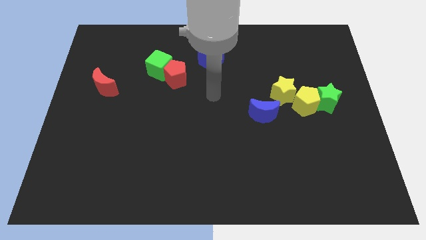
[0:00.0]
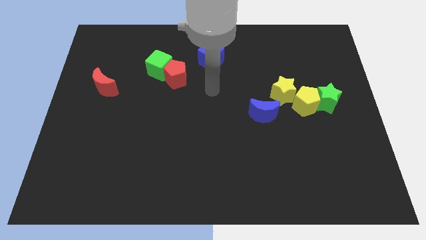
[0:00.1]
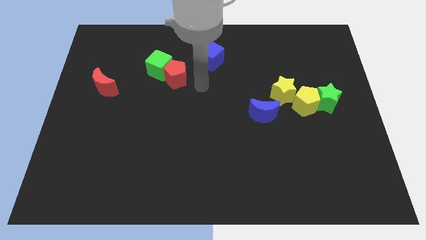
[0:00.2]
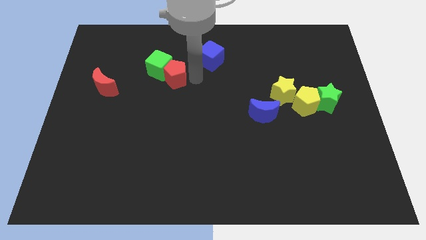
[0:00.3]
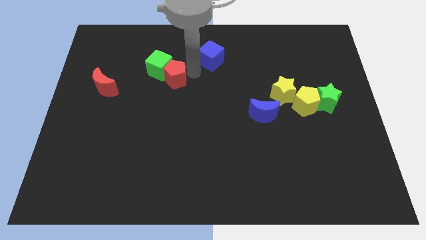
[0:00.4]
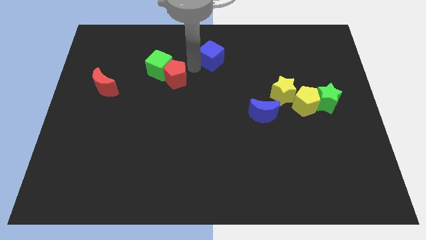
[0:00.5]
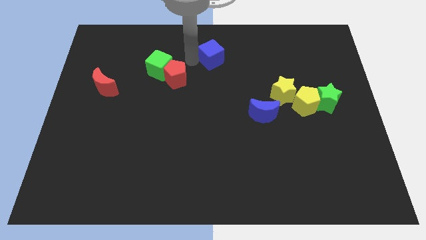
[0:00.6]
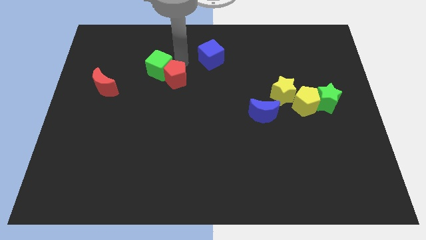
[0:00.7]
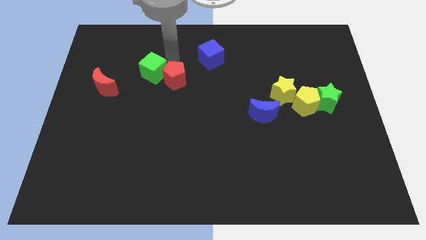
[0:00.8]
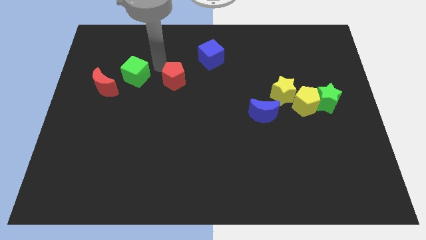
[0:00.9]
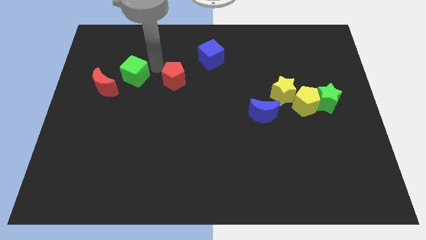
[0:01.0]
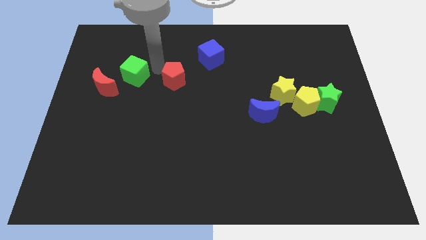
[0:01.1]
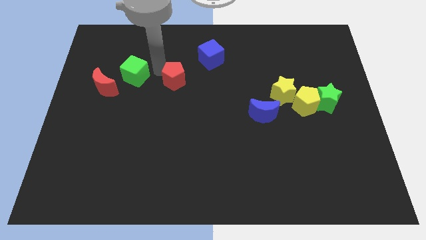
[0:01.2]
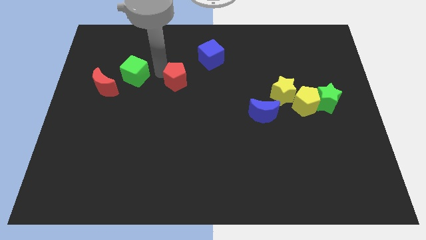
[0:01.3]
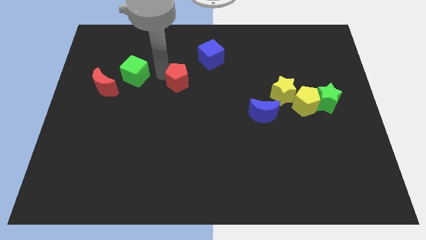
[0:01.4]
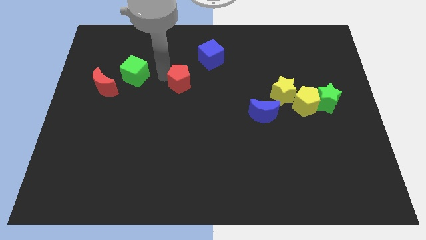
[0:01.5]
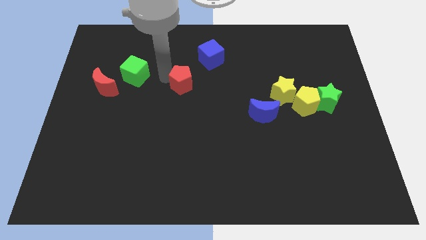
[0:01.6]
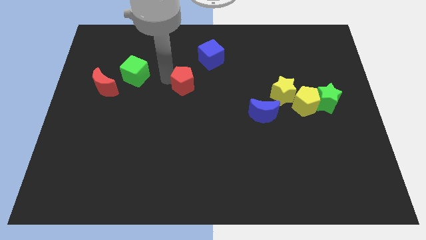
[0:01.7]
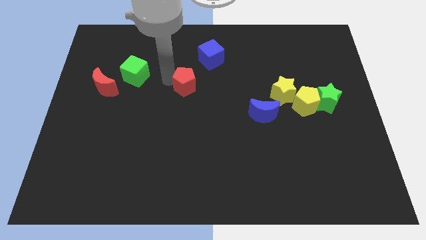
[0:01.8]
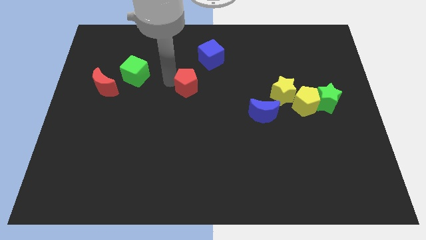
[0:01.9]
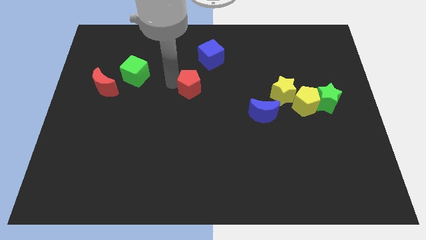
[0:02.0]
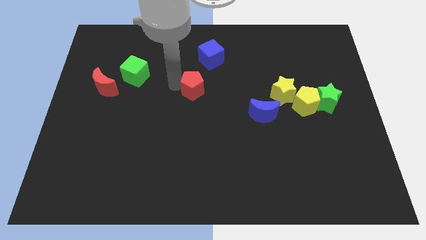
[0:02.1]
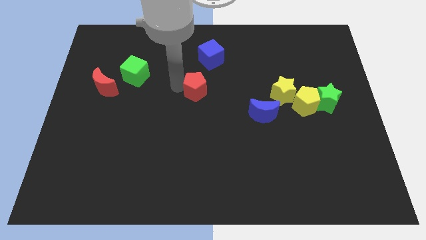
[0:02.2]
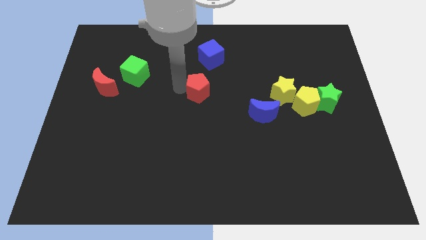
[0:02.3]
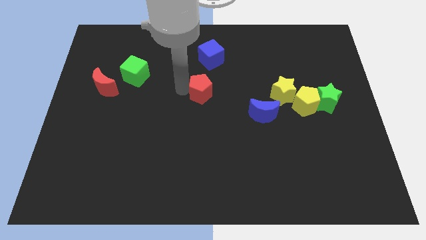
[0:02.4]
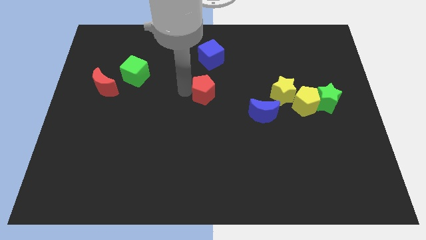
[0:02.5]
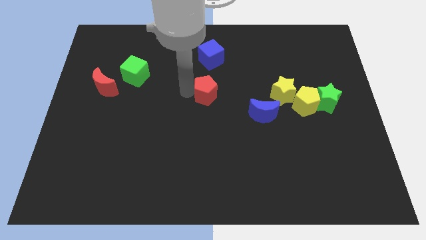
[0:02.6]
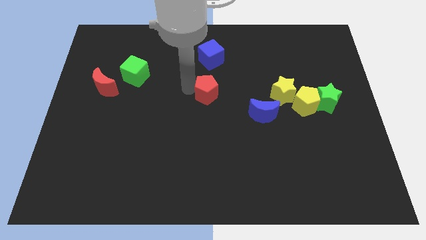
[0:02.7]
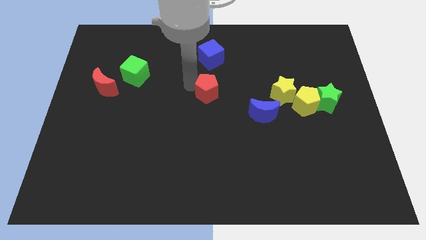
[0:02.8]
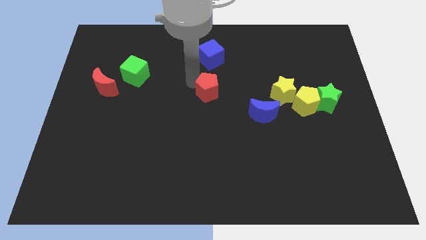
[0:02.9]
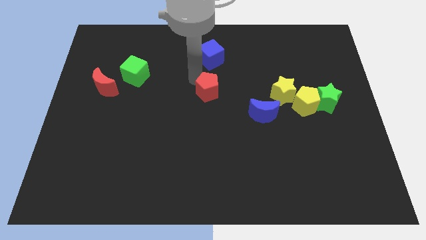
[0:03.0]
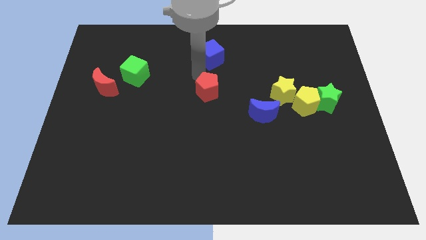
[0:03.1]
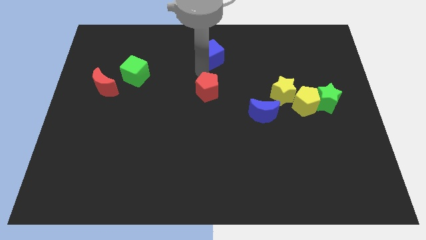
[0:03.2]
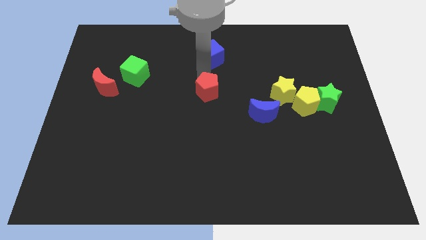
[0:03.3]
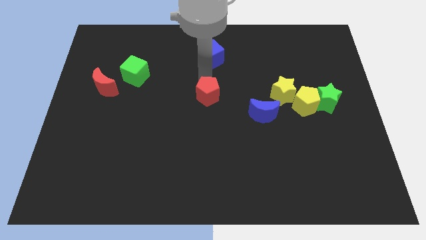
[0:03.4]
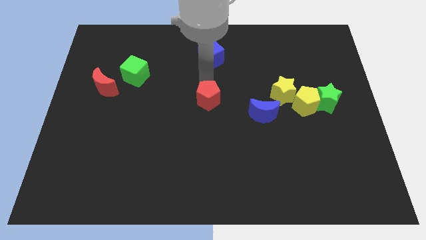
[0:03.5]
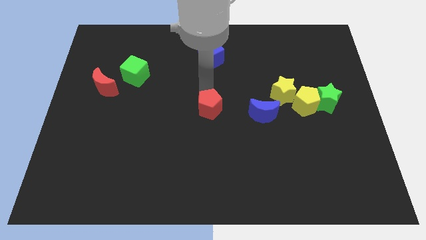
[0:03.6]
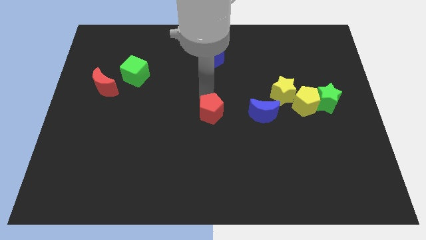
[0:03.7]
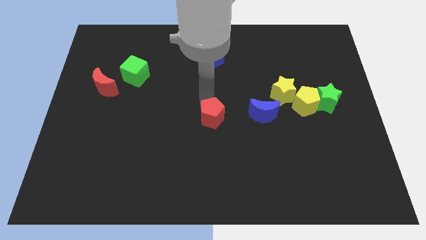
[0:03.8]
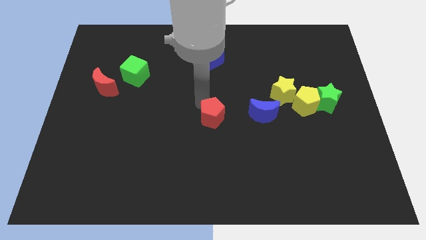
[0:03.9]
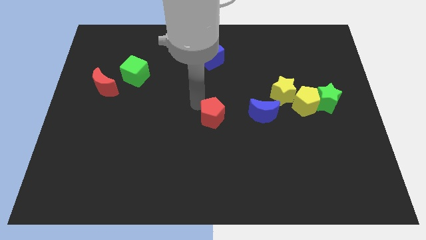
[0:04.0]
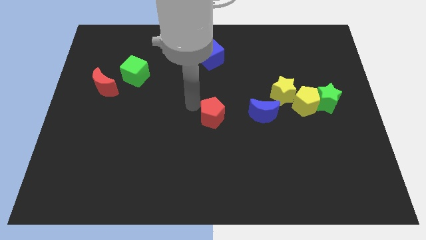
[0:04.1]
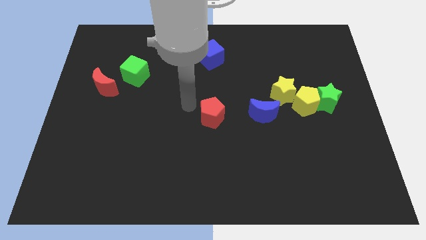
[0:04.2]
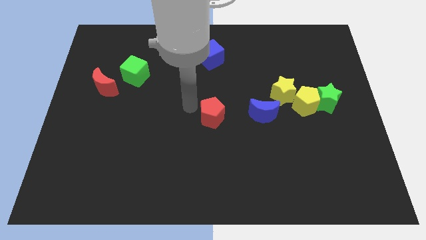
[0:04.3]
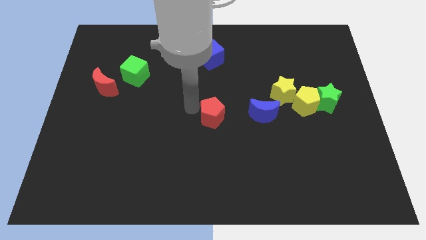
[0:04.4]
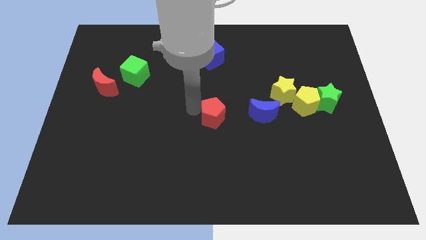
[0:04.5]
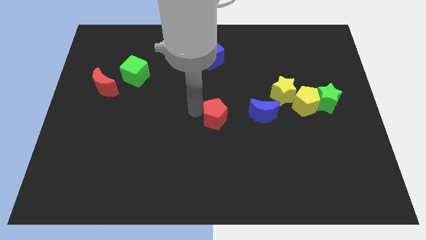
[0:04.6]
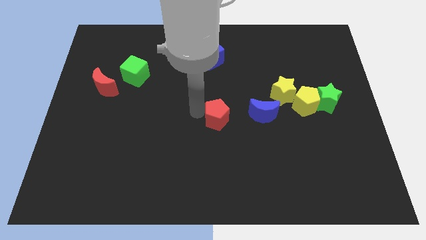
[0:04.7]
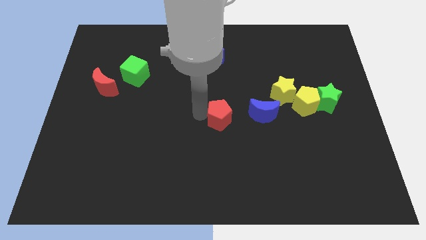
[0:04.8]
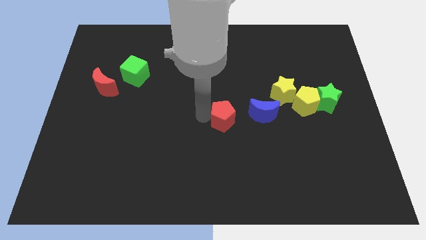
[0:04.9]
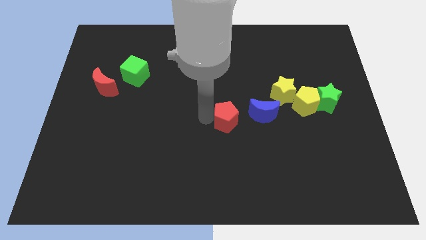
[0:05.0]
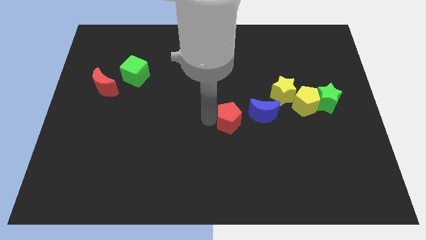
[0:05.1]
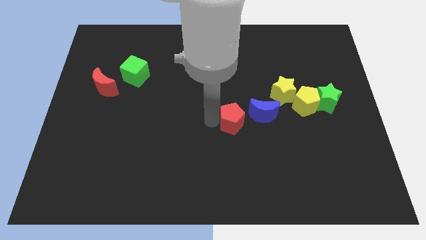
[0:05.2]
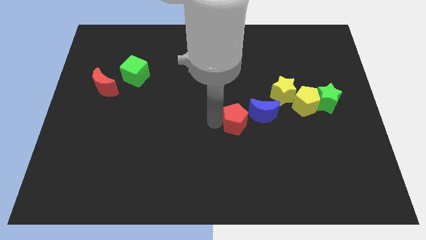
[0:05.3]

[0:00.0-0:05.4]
push the red pentagon down and to the right diagonally

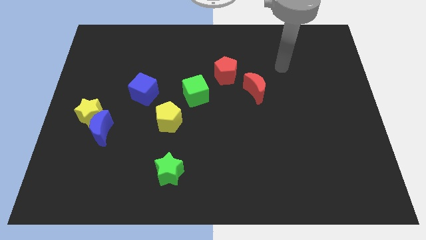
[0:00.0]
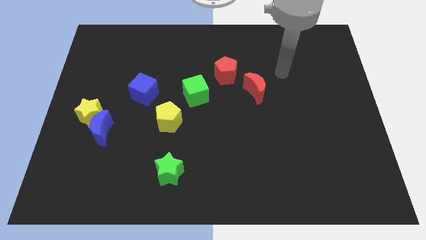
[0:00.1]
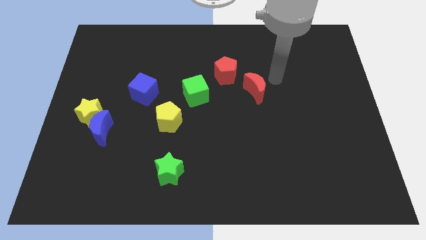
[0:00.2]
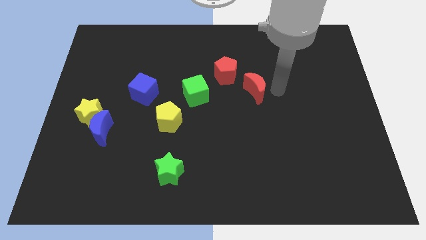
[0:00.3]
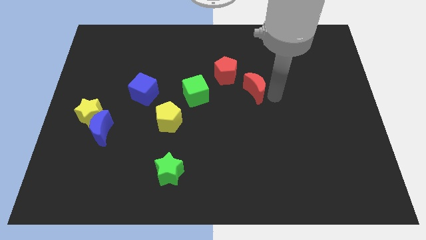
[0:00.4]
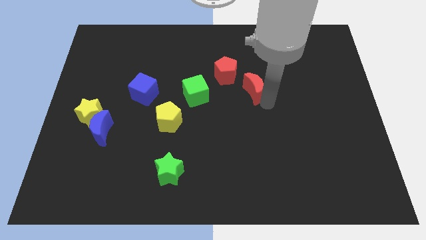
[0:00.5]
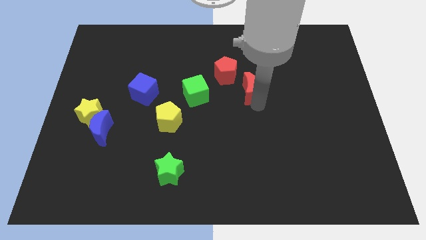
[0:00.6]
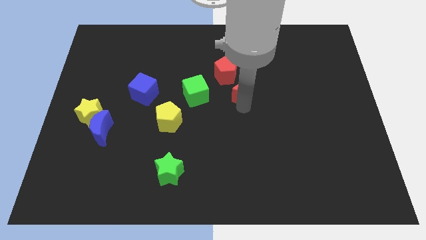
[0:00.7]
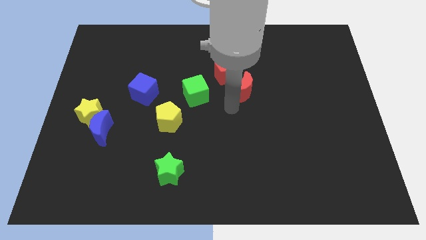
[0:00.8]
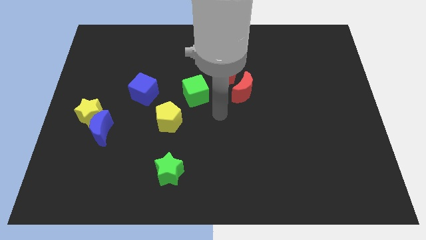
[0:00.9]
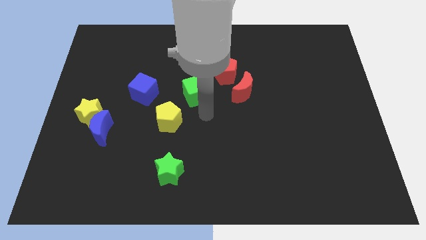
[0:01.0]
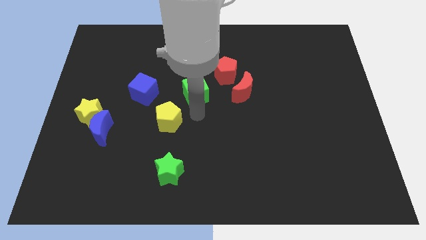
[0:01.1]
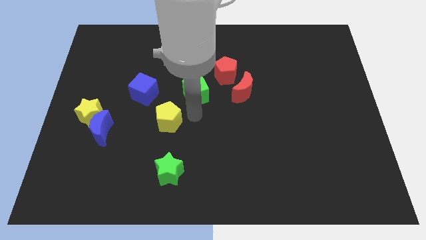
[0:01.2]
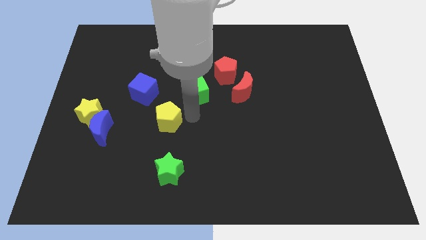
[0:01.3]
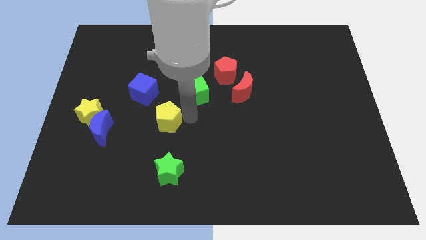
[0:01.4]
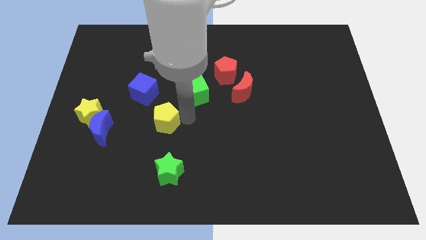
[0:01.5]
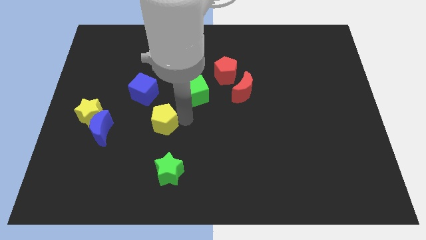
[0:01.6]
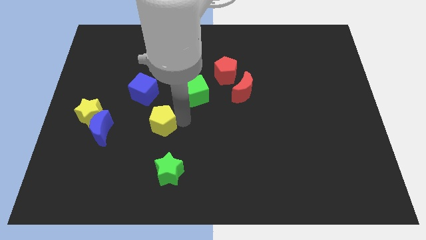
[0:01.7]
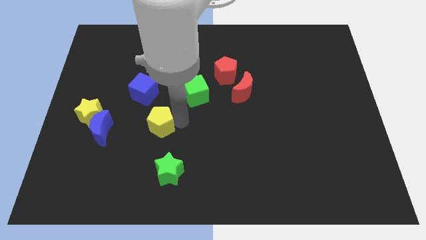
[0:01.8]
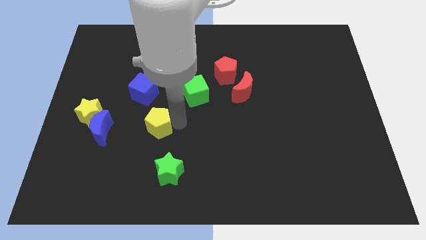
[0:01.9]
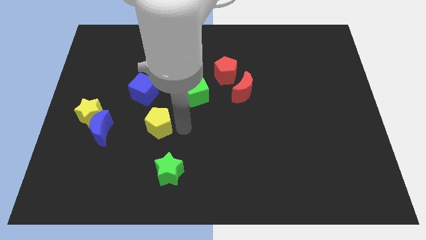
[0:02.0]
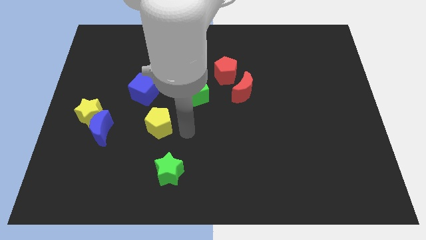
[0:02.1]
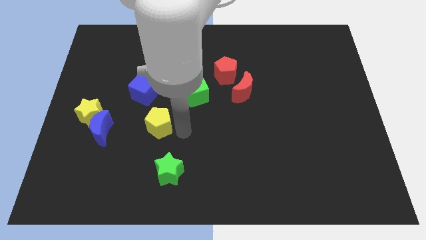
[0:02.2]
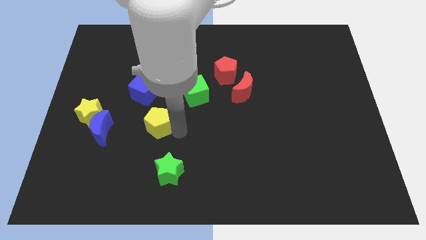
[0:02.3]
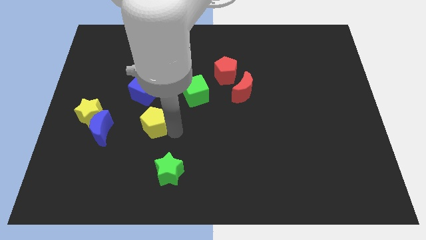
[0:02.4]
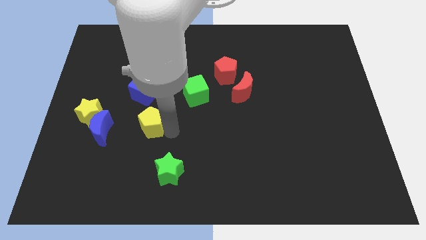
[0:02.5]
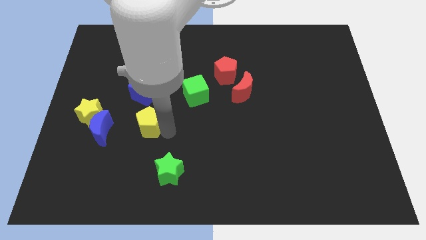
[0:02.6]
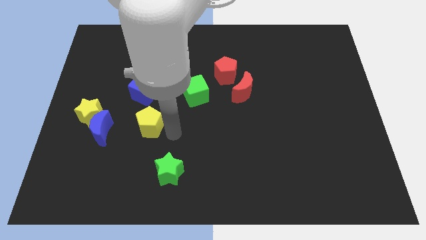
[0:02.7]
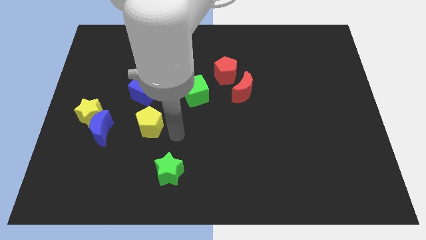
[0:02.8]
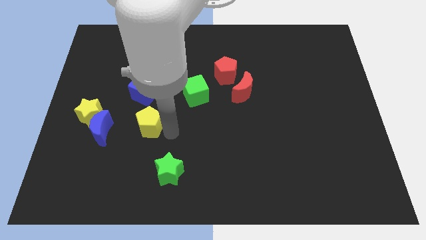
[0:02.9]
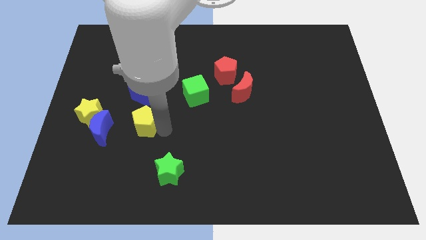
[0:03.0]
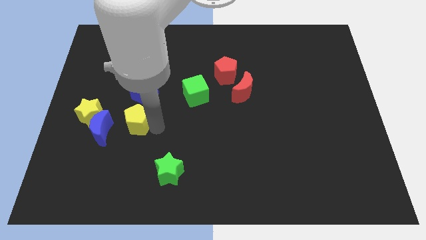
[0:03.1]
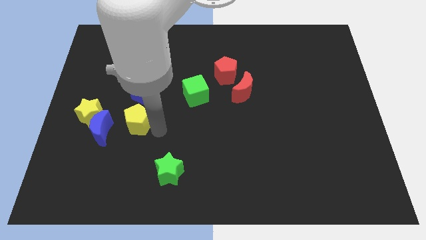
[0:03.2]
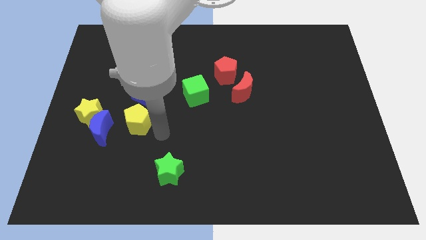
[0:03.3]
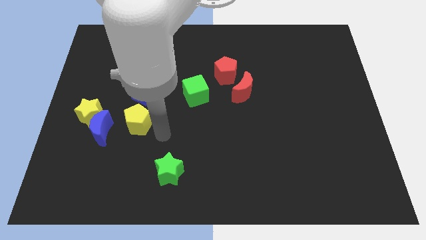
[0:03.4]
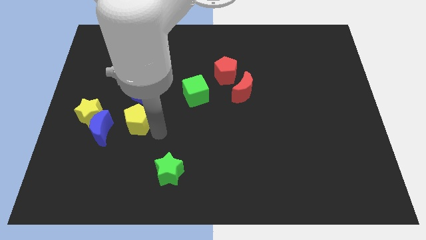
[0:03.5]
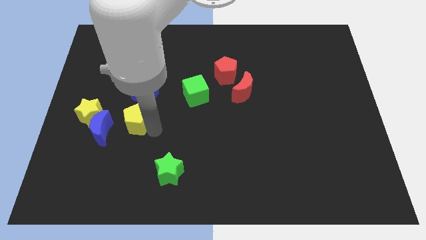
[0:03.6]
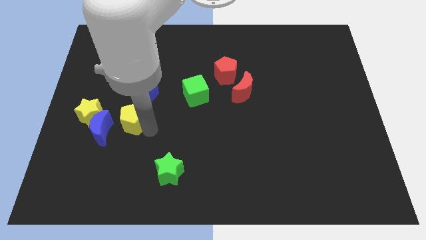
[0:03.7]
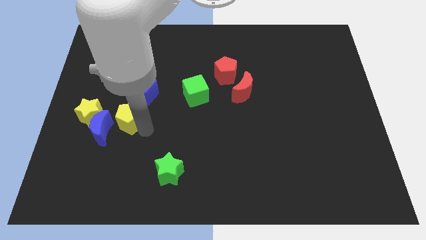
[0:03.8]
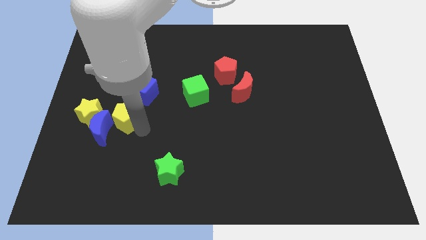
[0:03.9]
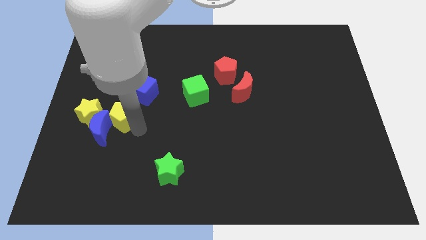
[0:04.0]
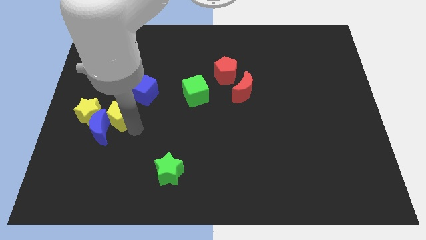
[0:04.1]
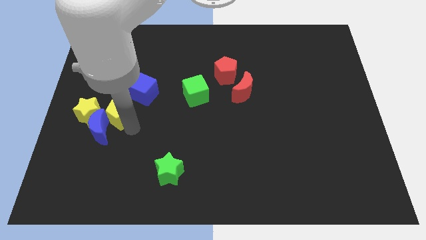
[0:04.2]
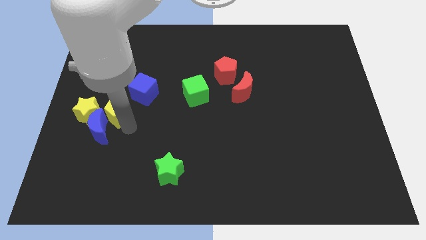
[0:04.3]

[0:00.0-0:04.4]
push the yellow pentagon a bit up and then left
